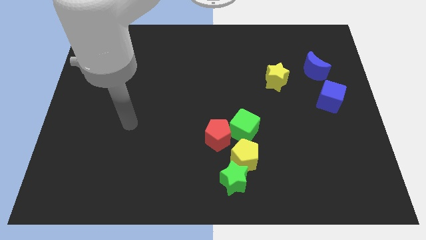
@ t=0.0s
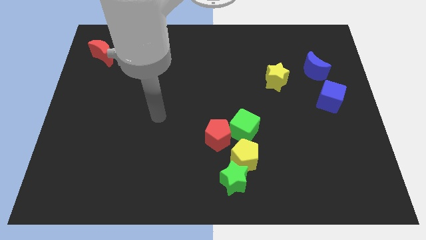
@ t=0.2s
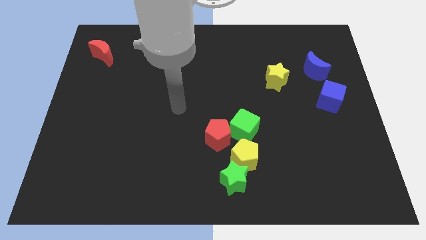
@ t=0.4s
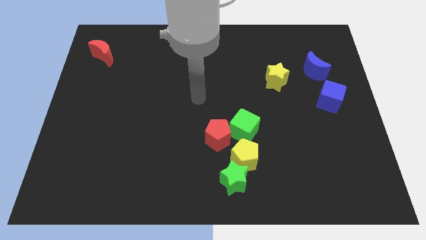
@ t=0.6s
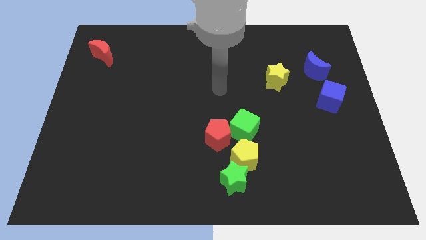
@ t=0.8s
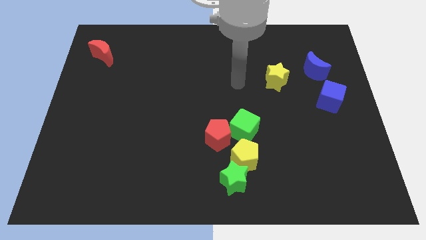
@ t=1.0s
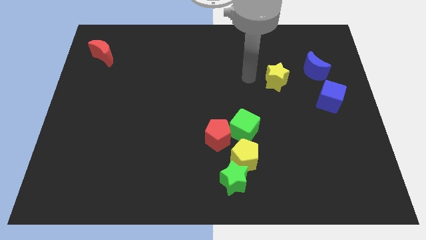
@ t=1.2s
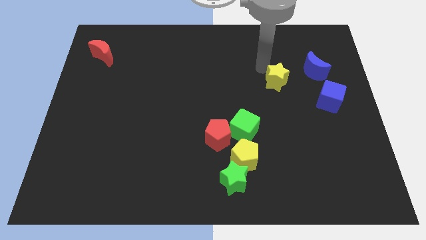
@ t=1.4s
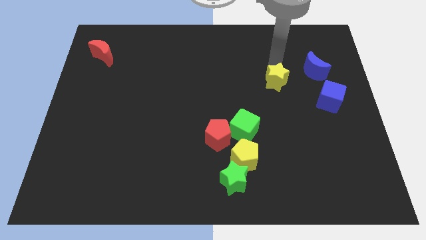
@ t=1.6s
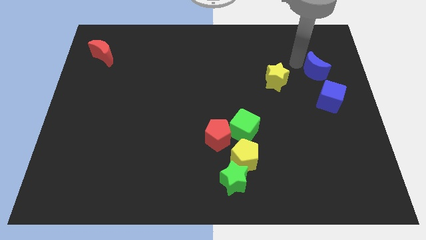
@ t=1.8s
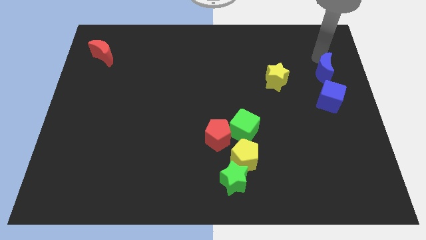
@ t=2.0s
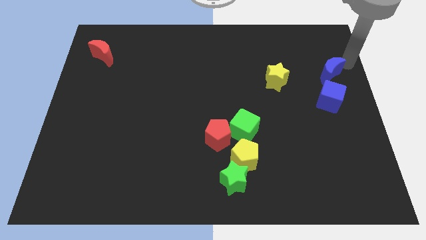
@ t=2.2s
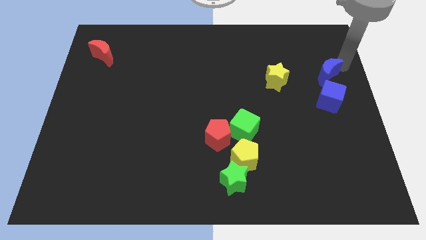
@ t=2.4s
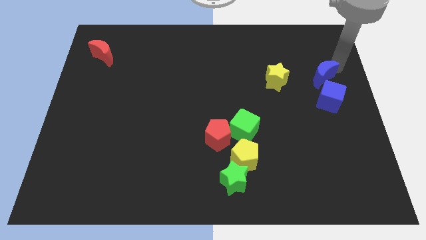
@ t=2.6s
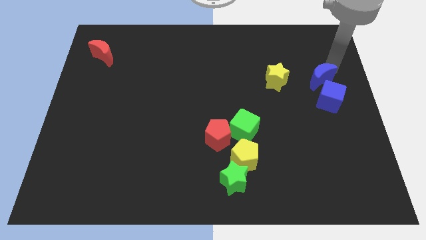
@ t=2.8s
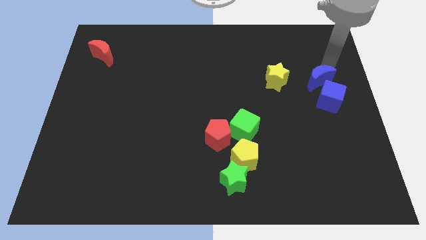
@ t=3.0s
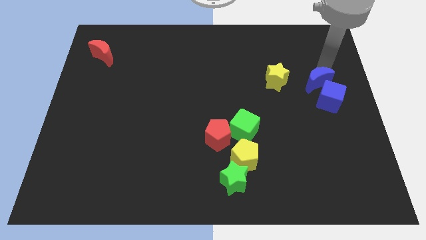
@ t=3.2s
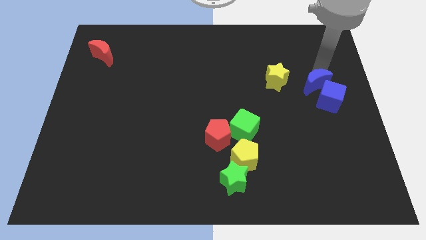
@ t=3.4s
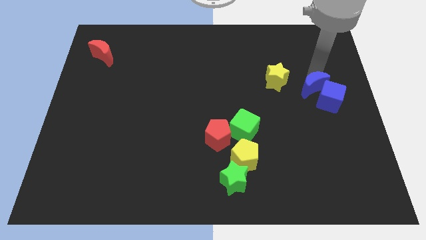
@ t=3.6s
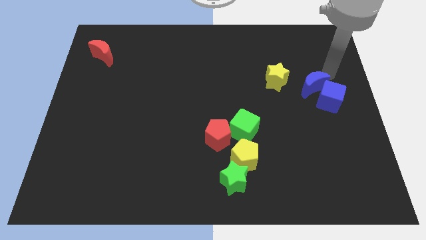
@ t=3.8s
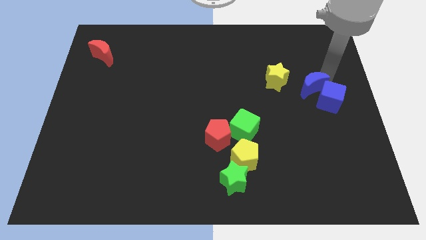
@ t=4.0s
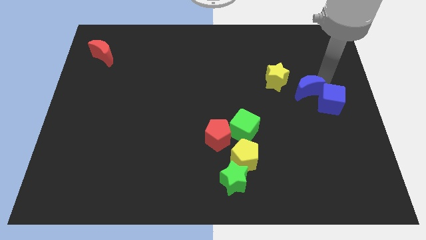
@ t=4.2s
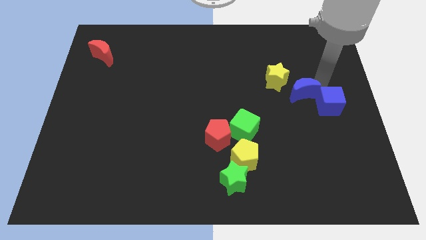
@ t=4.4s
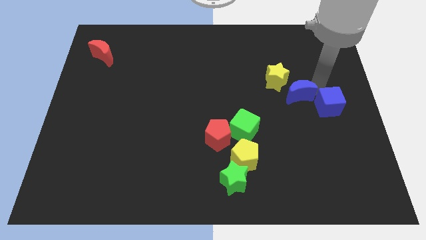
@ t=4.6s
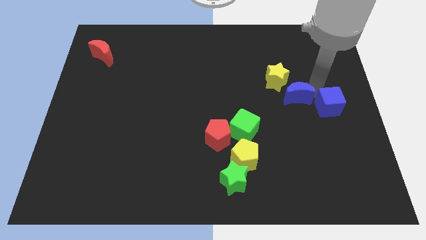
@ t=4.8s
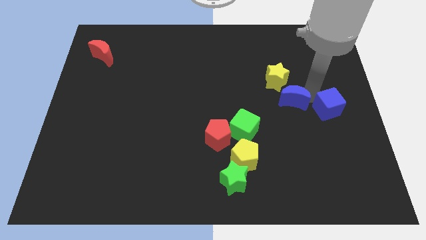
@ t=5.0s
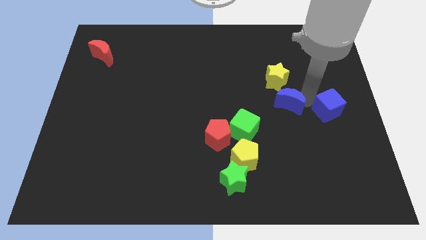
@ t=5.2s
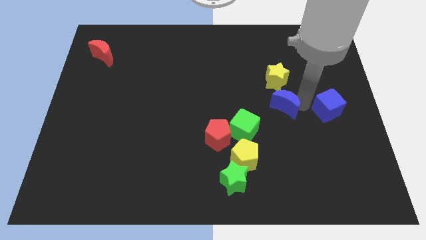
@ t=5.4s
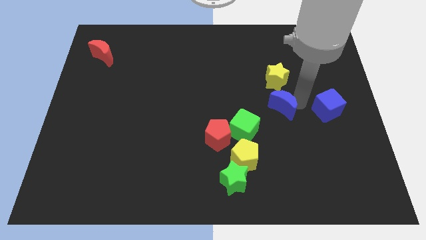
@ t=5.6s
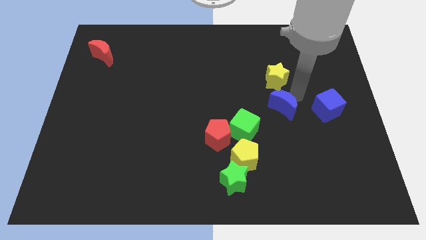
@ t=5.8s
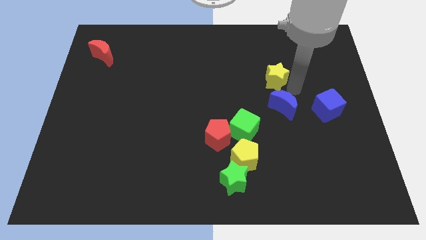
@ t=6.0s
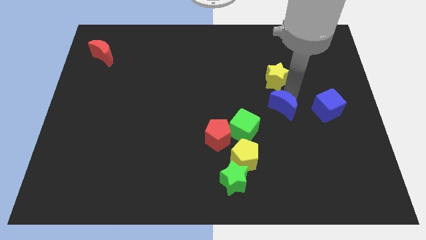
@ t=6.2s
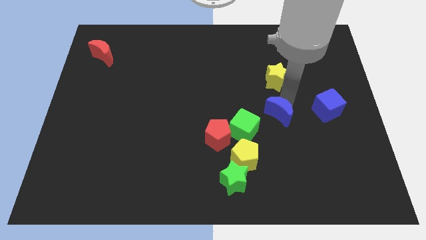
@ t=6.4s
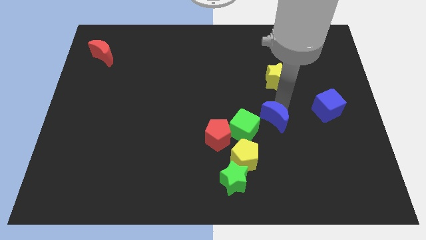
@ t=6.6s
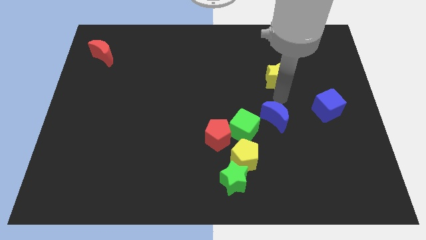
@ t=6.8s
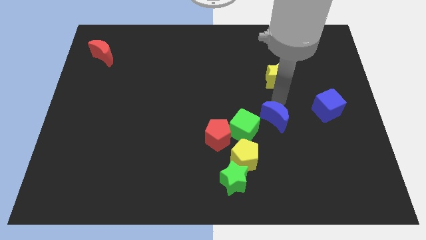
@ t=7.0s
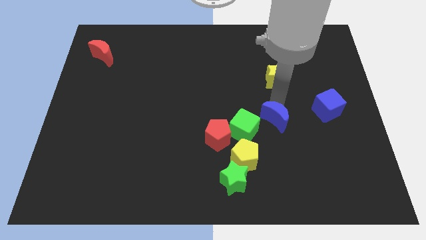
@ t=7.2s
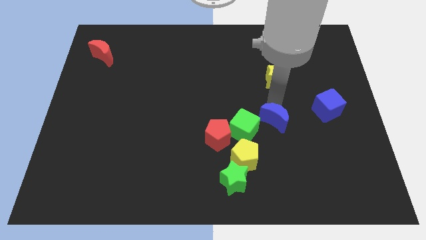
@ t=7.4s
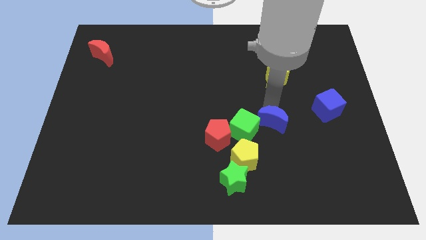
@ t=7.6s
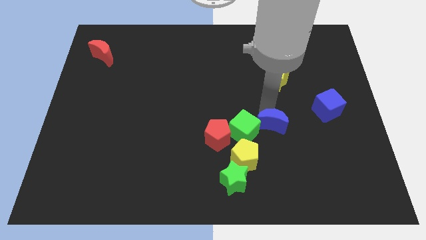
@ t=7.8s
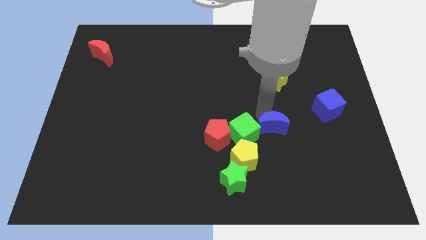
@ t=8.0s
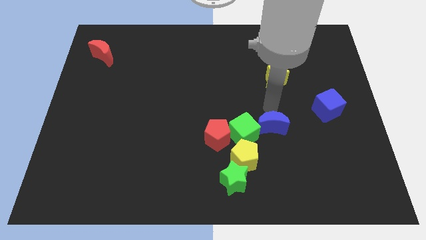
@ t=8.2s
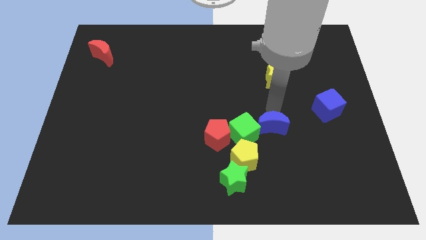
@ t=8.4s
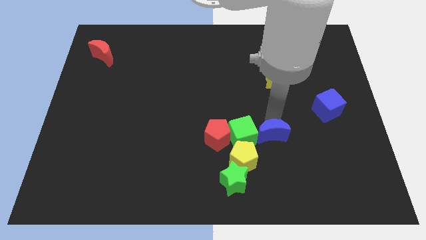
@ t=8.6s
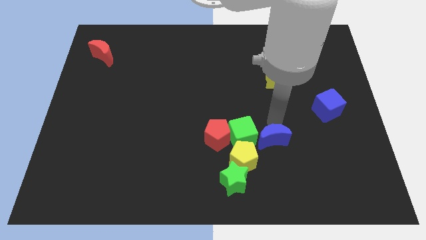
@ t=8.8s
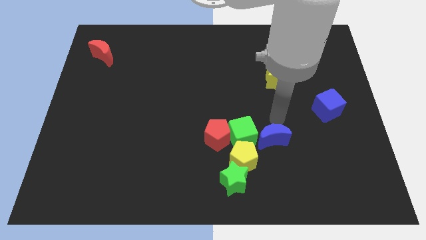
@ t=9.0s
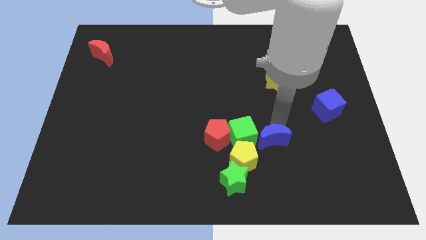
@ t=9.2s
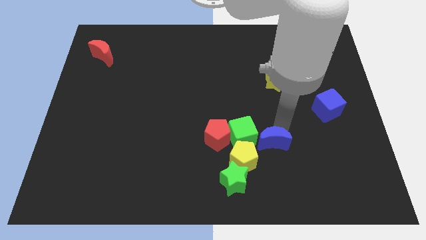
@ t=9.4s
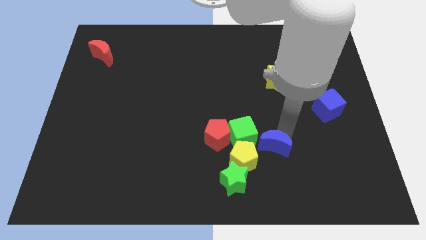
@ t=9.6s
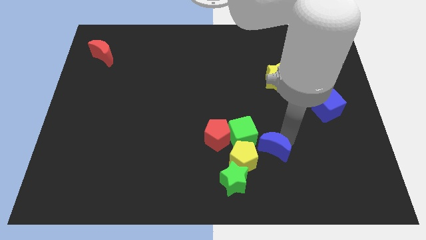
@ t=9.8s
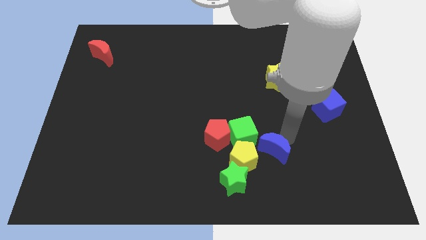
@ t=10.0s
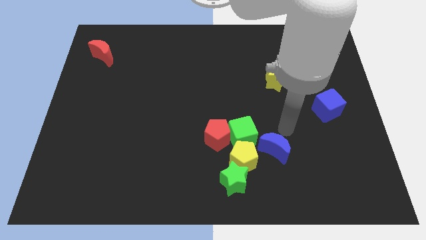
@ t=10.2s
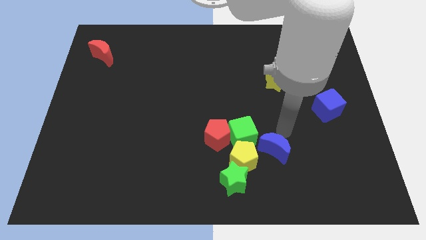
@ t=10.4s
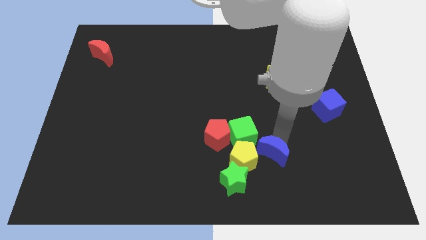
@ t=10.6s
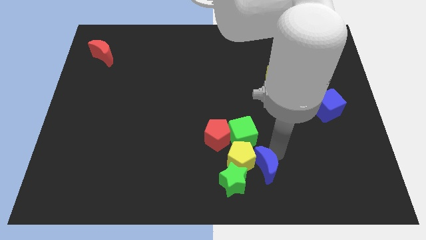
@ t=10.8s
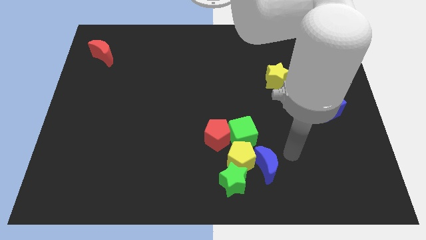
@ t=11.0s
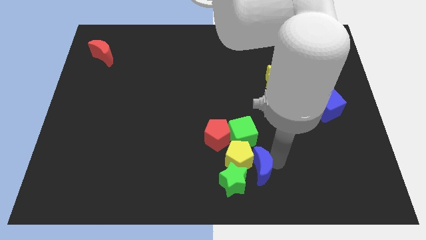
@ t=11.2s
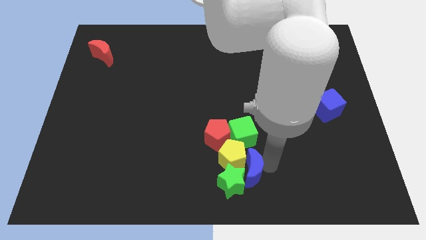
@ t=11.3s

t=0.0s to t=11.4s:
push the blue moon next to the green star

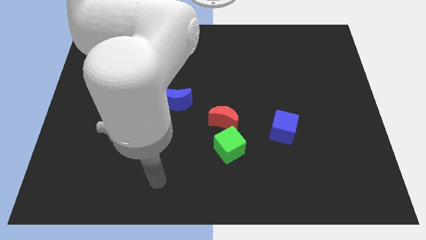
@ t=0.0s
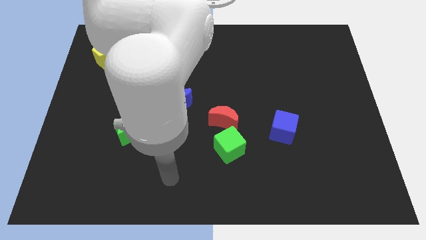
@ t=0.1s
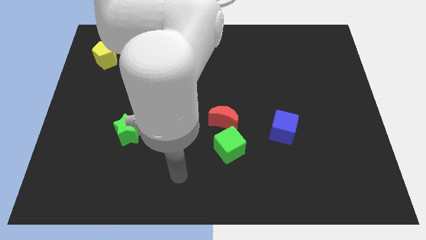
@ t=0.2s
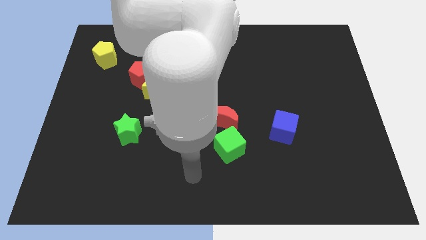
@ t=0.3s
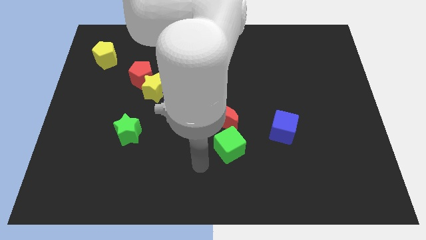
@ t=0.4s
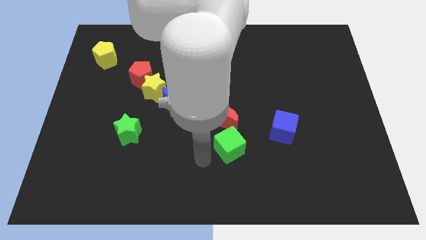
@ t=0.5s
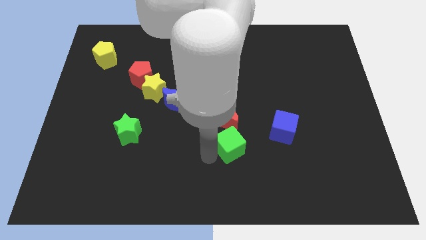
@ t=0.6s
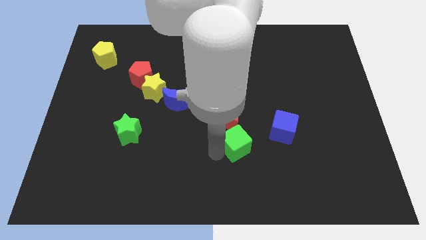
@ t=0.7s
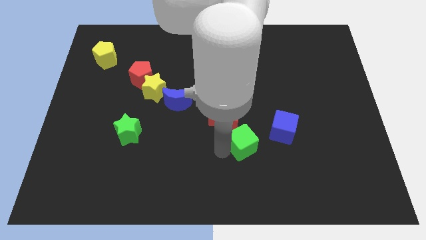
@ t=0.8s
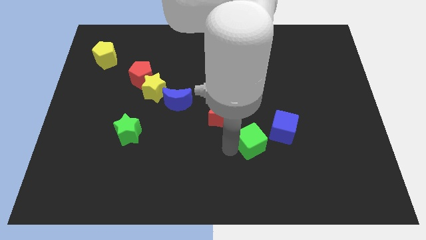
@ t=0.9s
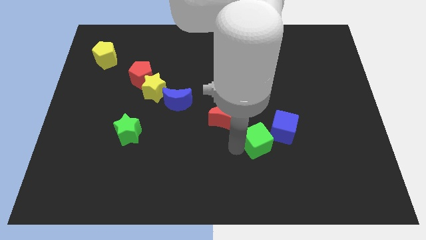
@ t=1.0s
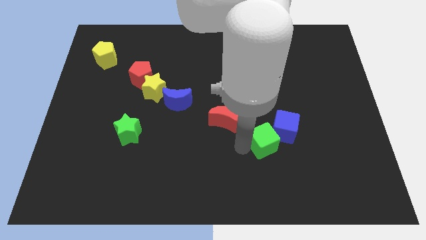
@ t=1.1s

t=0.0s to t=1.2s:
push the green cube towards the blue cube
